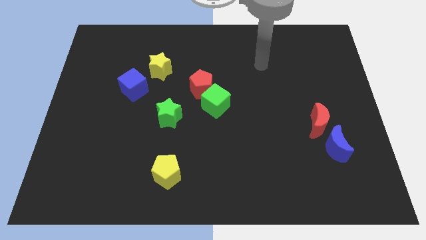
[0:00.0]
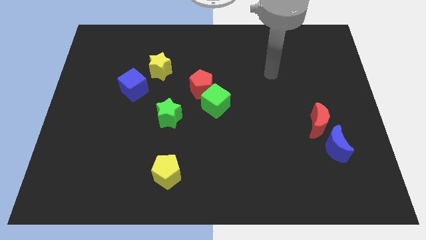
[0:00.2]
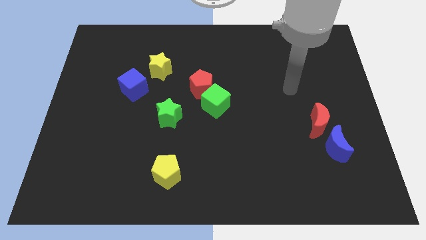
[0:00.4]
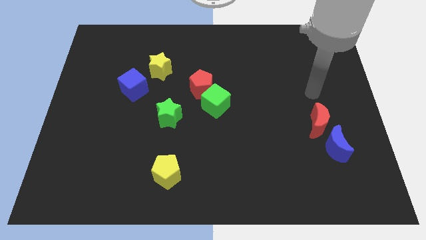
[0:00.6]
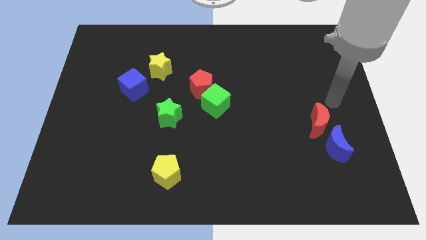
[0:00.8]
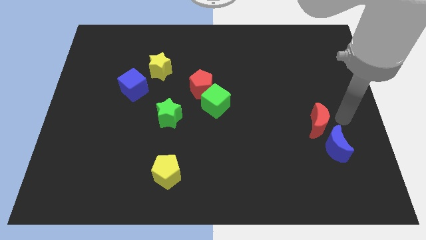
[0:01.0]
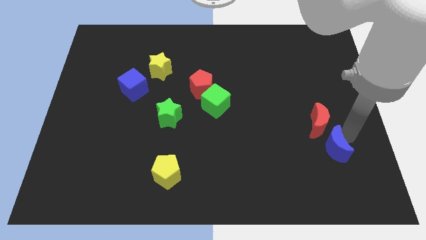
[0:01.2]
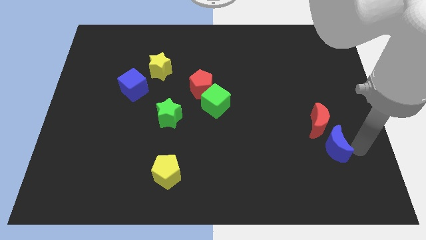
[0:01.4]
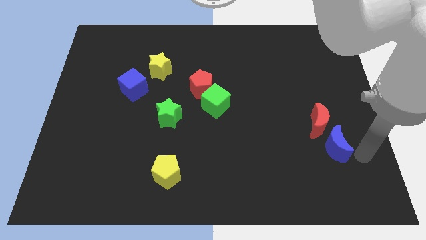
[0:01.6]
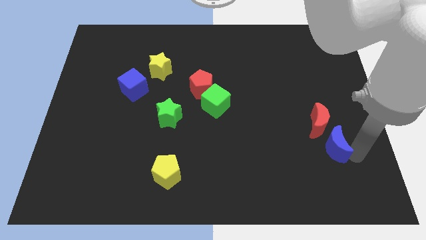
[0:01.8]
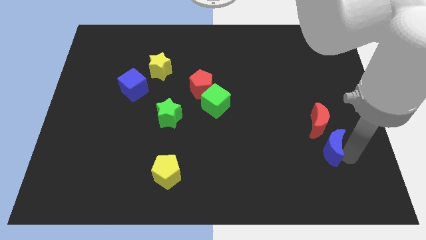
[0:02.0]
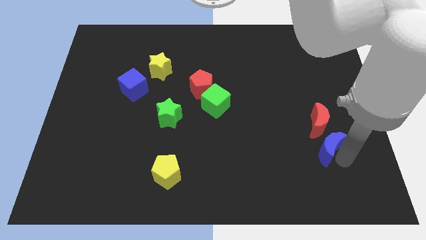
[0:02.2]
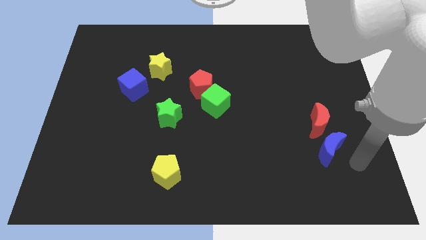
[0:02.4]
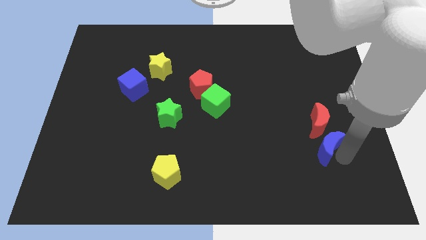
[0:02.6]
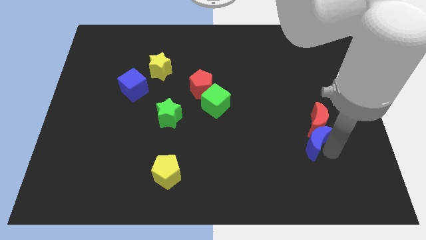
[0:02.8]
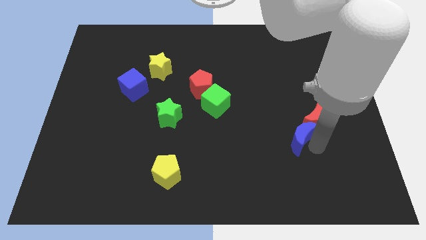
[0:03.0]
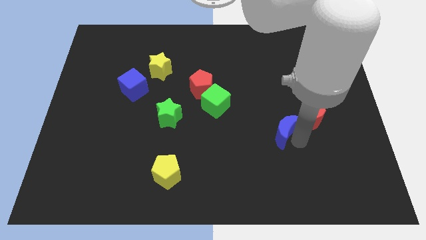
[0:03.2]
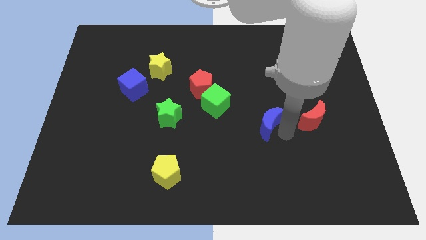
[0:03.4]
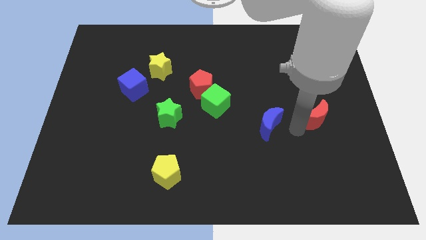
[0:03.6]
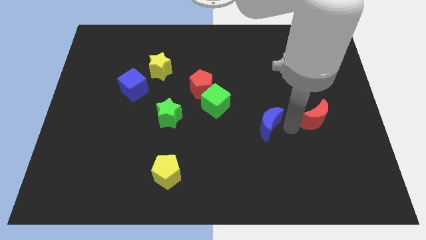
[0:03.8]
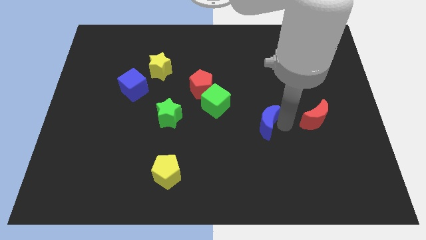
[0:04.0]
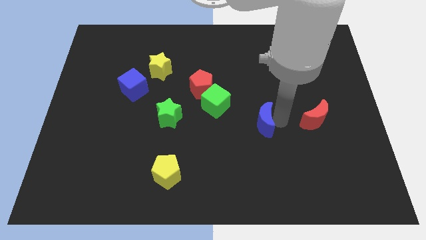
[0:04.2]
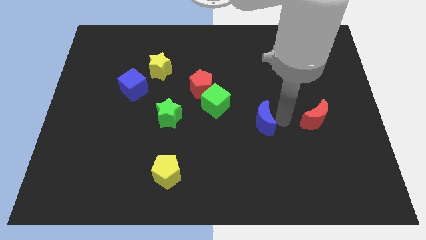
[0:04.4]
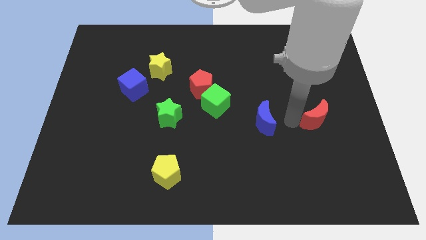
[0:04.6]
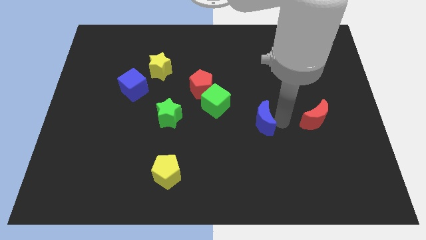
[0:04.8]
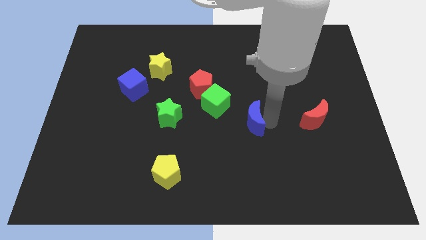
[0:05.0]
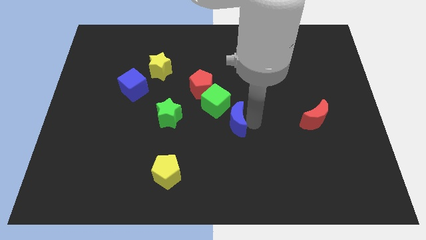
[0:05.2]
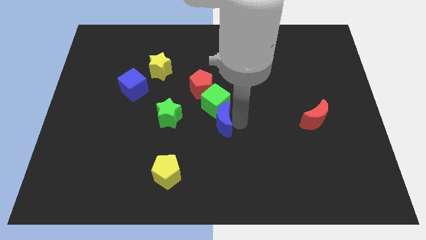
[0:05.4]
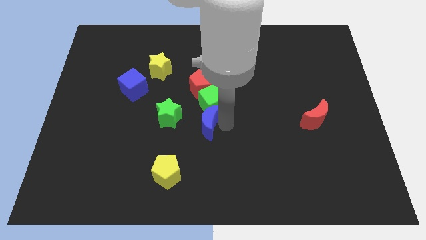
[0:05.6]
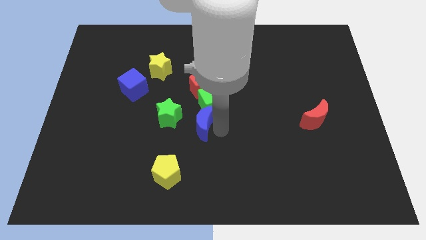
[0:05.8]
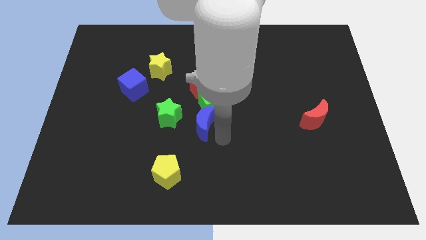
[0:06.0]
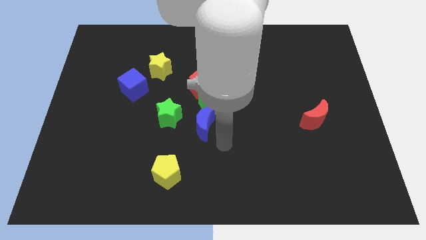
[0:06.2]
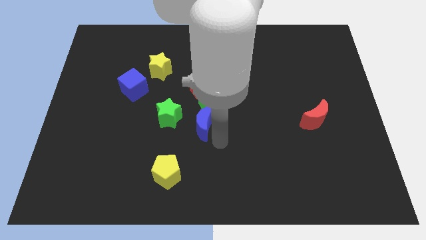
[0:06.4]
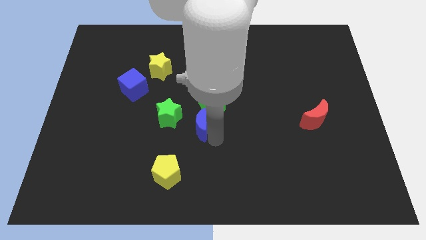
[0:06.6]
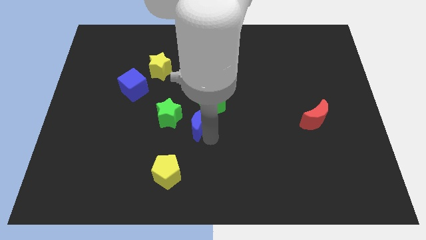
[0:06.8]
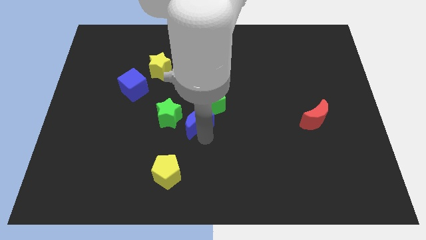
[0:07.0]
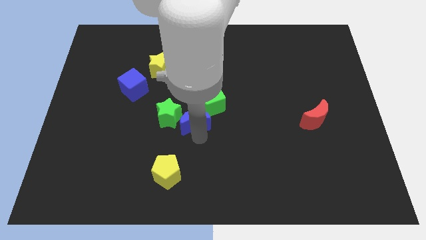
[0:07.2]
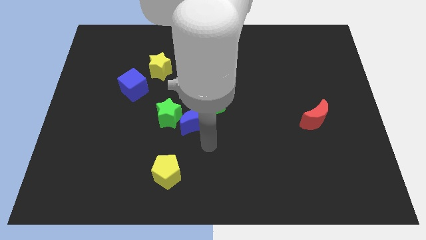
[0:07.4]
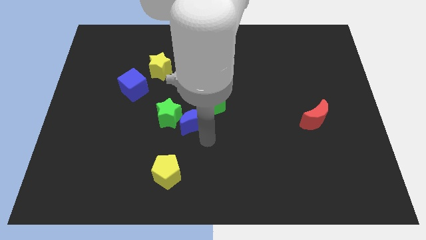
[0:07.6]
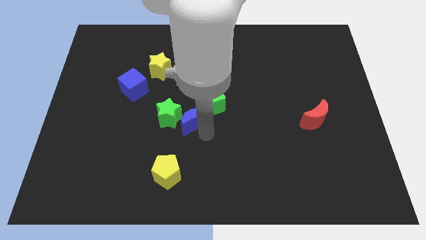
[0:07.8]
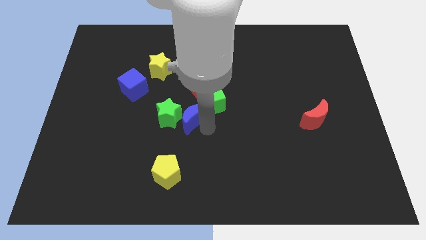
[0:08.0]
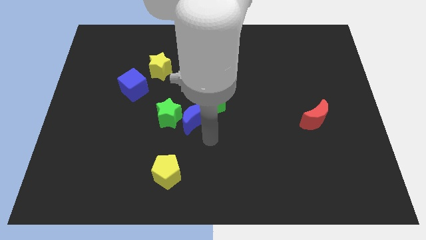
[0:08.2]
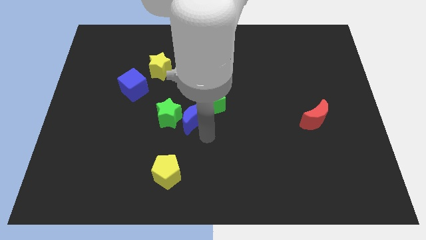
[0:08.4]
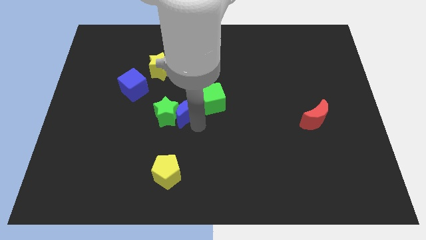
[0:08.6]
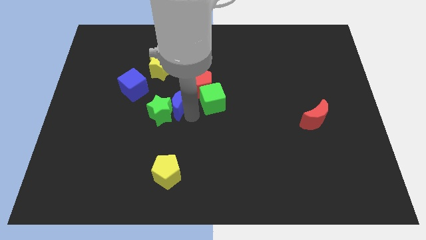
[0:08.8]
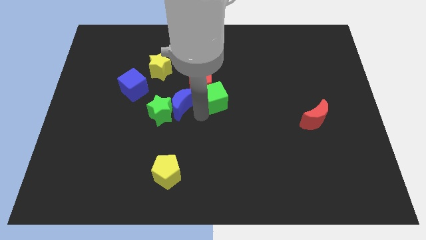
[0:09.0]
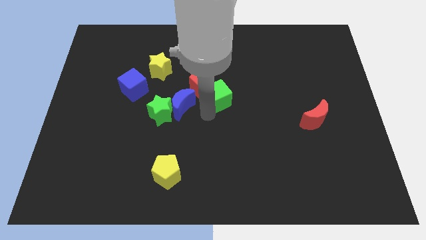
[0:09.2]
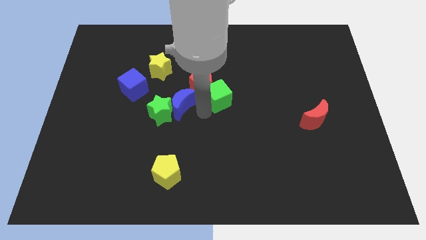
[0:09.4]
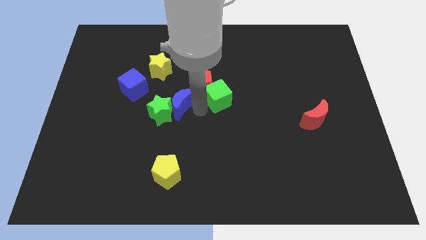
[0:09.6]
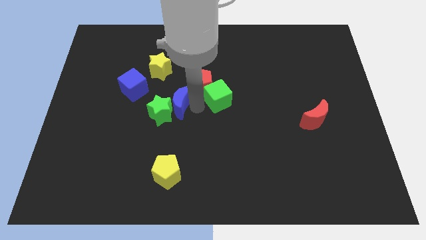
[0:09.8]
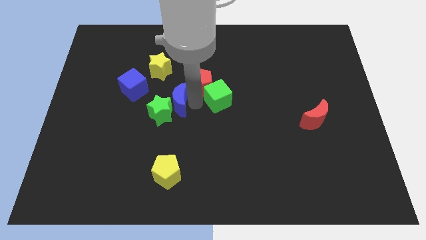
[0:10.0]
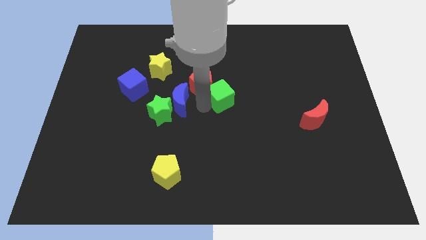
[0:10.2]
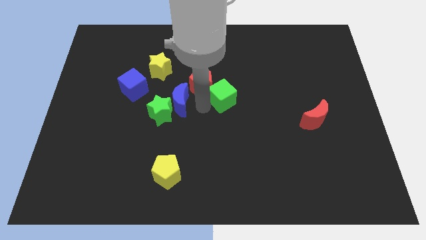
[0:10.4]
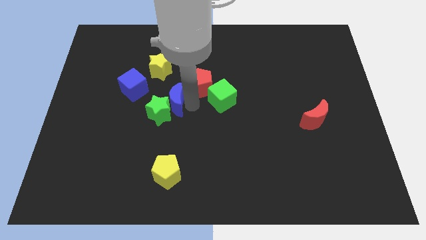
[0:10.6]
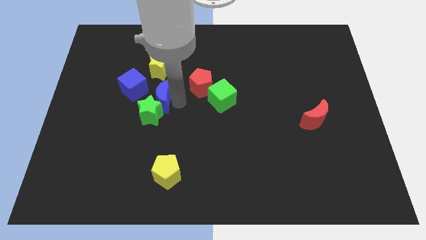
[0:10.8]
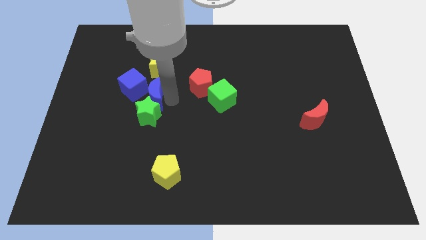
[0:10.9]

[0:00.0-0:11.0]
push the blue moon to the top left of the green star

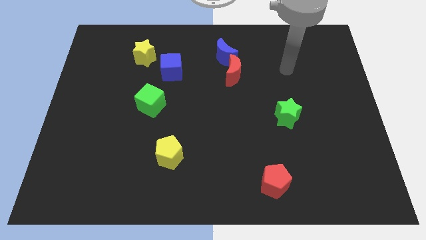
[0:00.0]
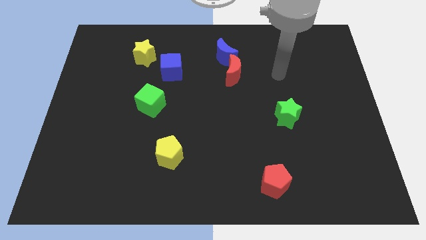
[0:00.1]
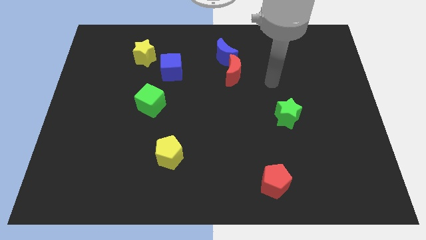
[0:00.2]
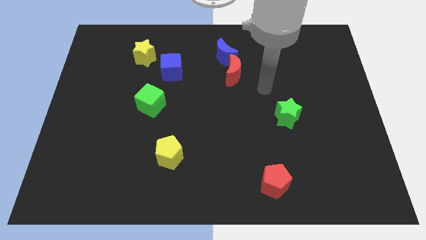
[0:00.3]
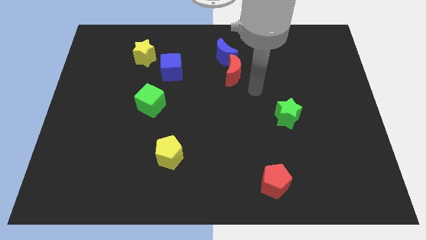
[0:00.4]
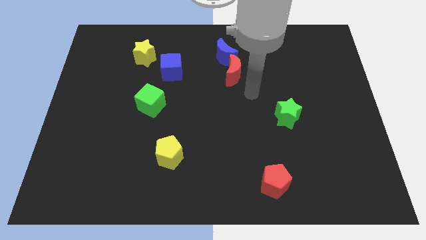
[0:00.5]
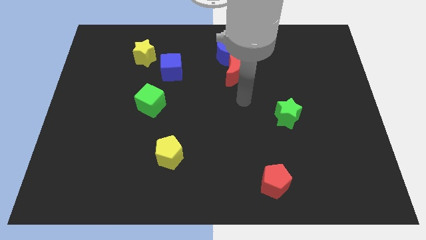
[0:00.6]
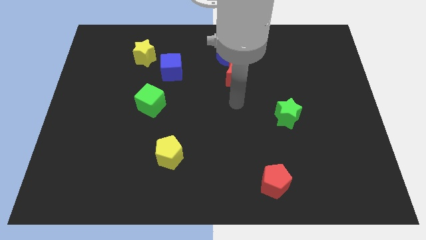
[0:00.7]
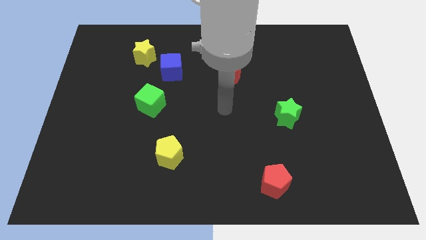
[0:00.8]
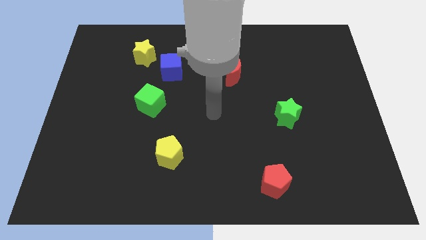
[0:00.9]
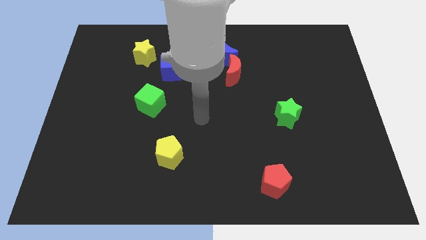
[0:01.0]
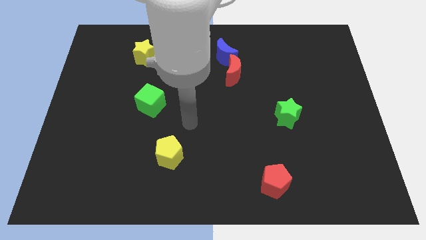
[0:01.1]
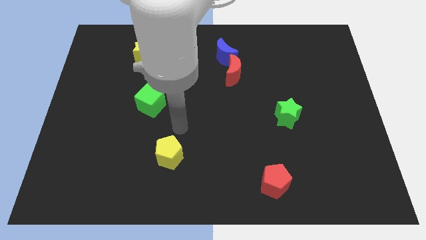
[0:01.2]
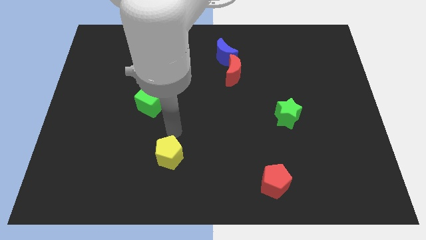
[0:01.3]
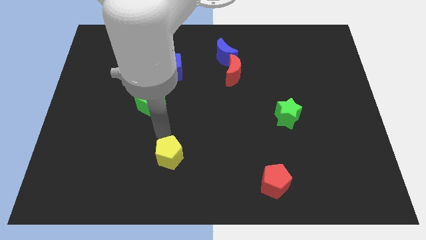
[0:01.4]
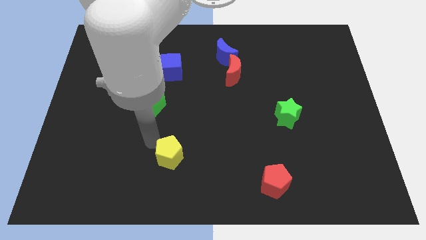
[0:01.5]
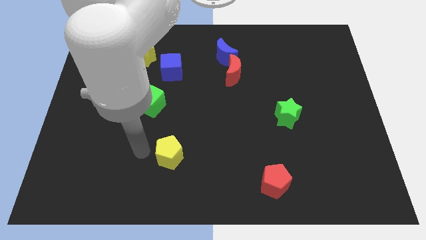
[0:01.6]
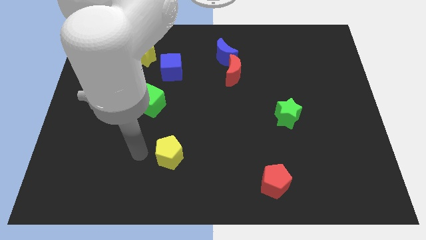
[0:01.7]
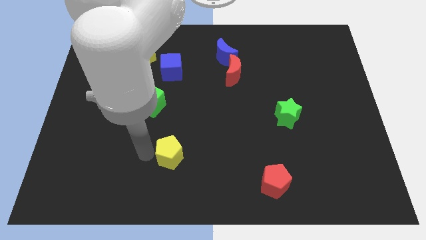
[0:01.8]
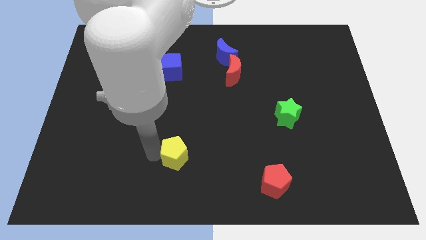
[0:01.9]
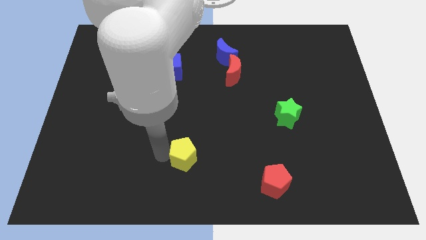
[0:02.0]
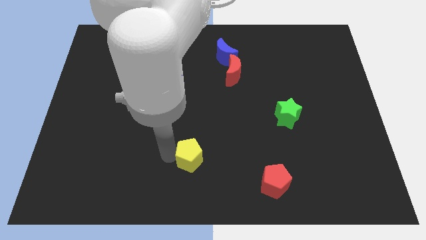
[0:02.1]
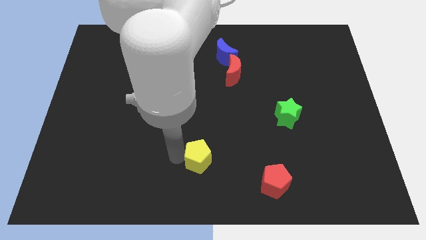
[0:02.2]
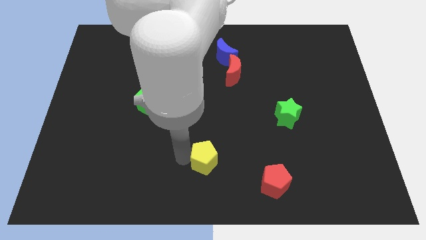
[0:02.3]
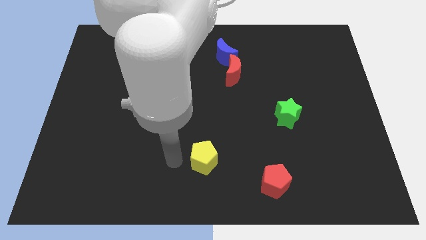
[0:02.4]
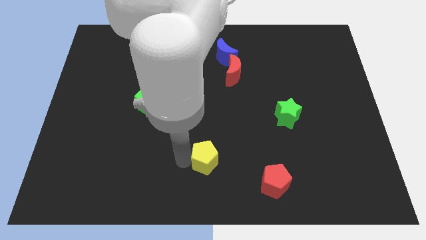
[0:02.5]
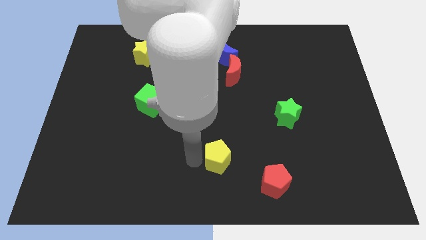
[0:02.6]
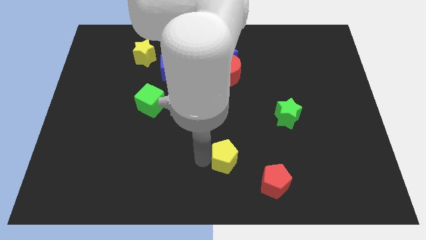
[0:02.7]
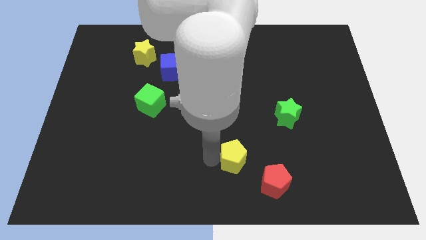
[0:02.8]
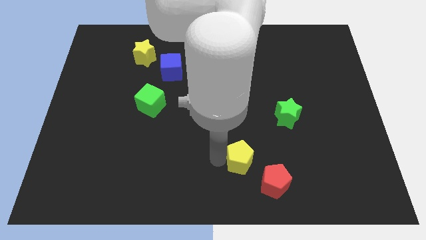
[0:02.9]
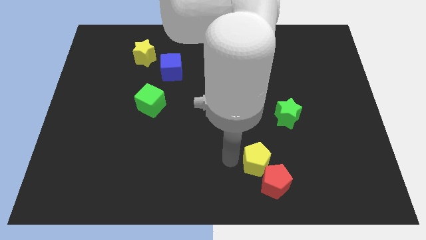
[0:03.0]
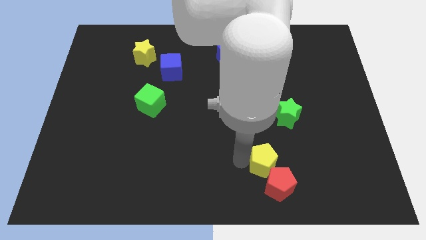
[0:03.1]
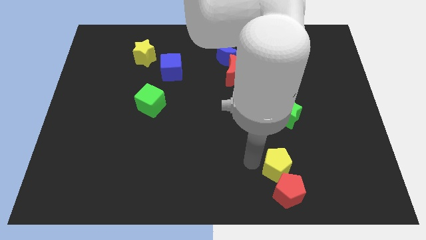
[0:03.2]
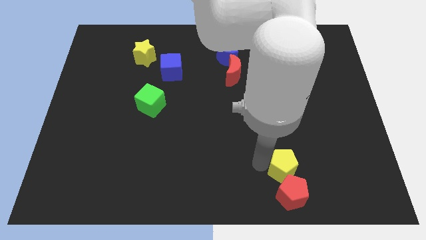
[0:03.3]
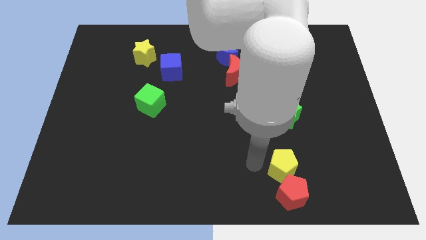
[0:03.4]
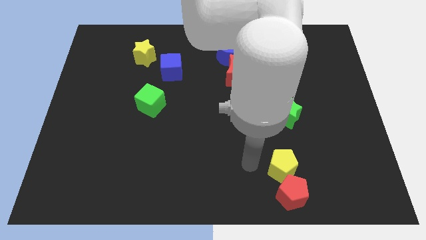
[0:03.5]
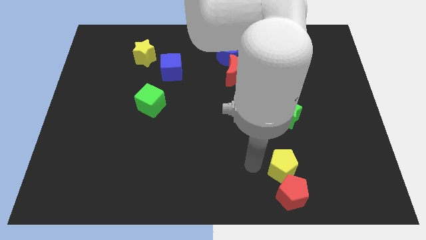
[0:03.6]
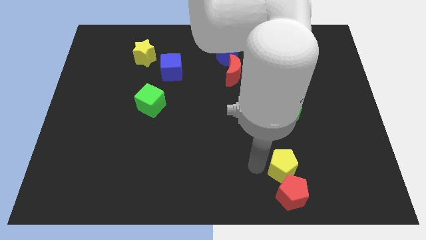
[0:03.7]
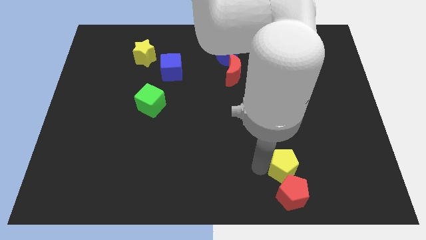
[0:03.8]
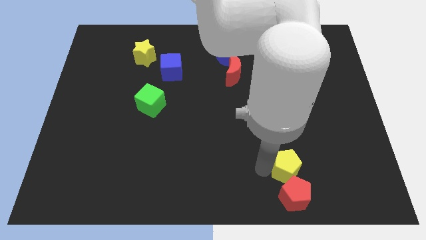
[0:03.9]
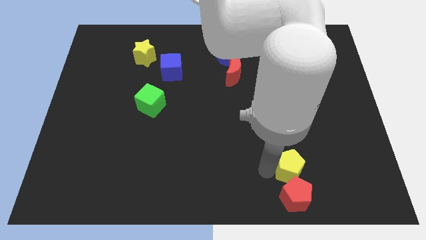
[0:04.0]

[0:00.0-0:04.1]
move the yellow pentagon to the top right of the red pentagon
